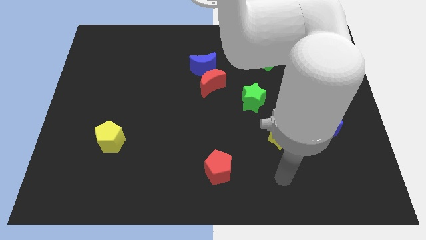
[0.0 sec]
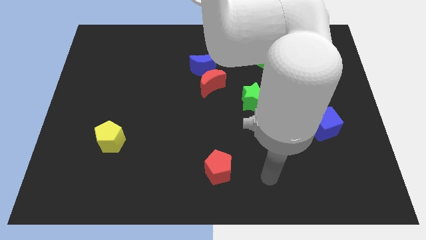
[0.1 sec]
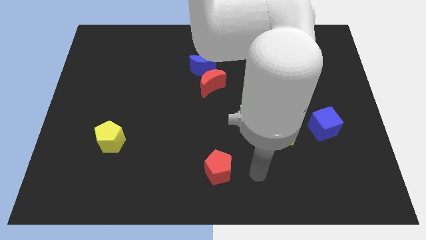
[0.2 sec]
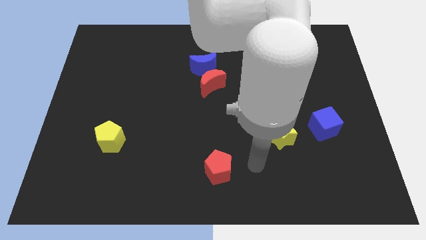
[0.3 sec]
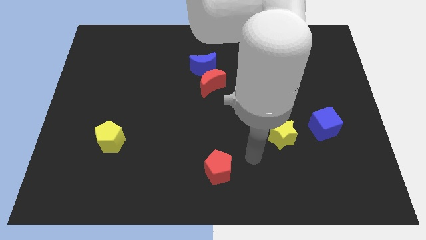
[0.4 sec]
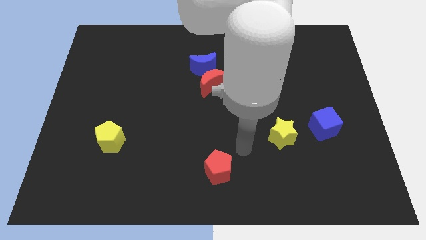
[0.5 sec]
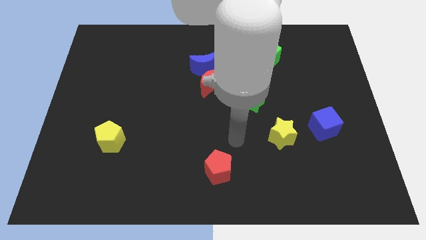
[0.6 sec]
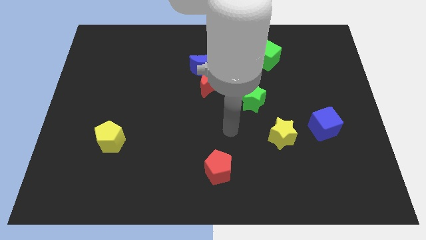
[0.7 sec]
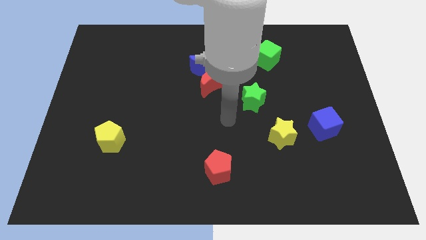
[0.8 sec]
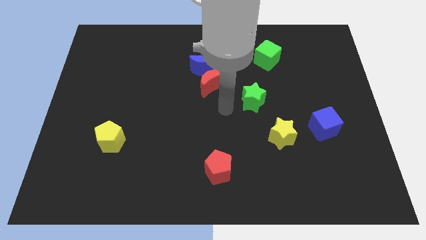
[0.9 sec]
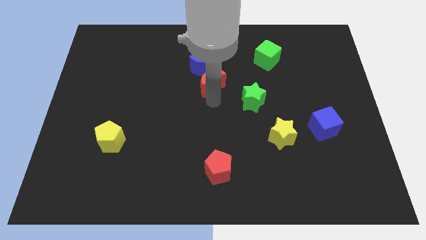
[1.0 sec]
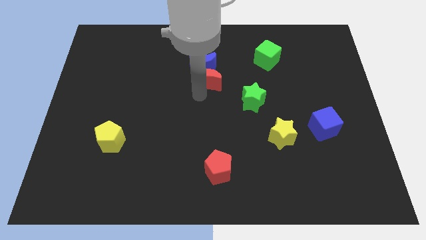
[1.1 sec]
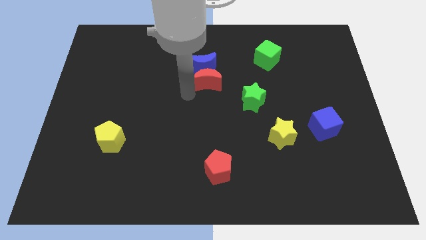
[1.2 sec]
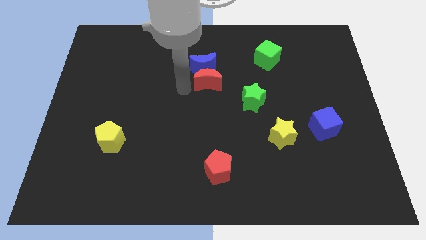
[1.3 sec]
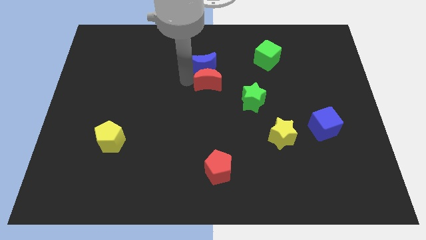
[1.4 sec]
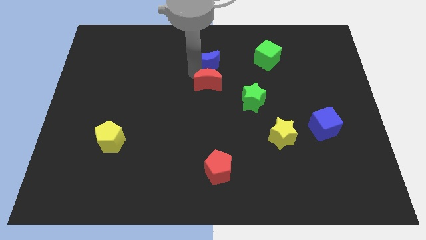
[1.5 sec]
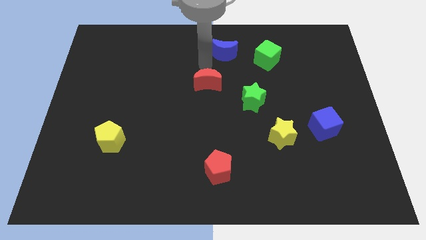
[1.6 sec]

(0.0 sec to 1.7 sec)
pull the red moon apart from the blue moon

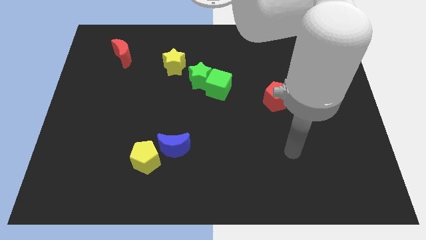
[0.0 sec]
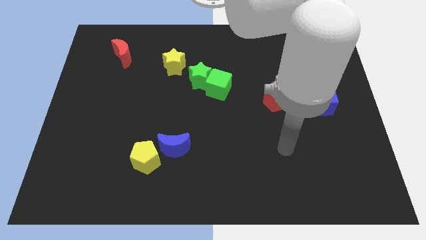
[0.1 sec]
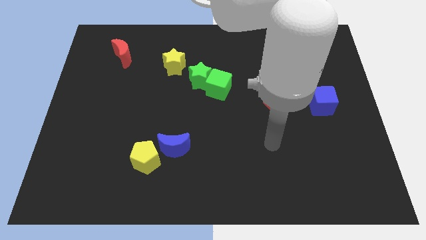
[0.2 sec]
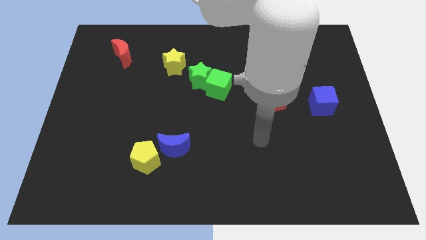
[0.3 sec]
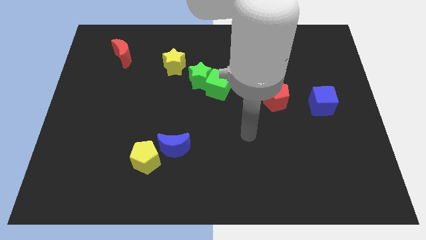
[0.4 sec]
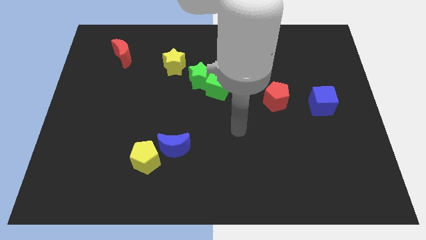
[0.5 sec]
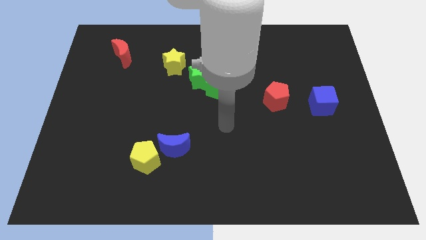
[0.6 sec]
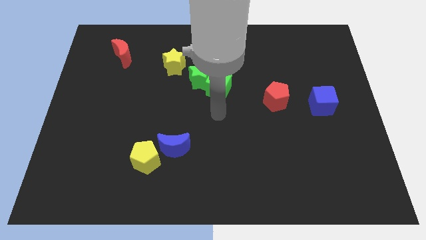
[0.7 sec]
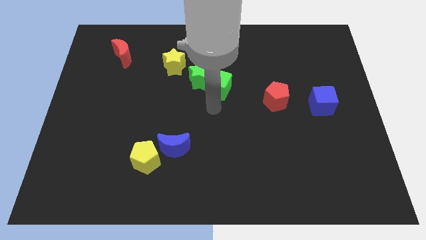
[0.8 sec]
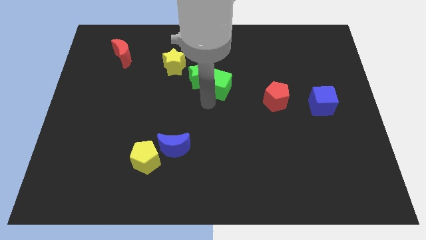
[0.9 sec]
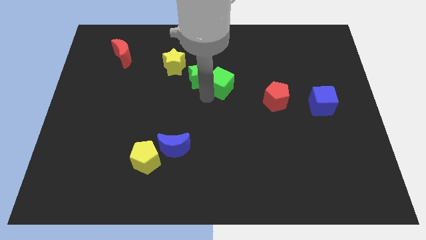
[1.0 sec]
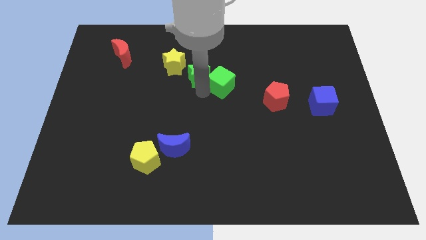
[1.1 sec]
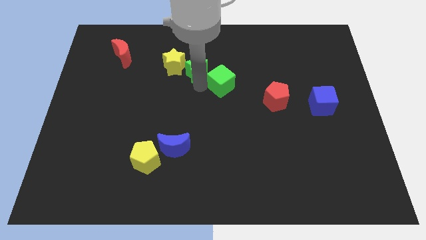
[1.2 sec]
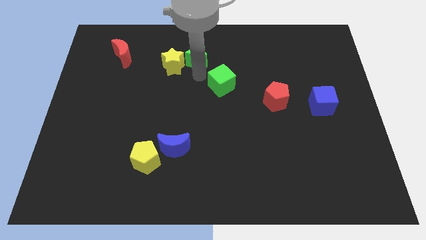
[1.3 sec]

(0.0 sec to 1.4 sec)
move the green cube away from the green star

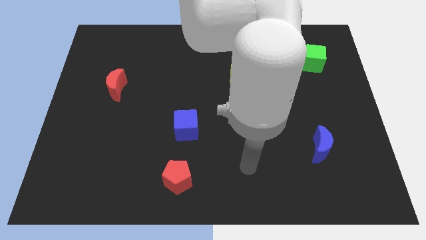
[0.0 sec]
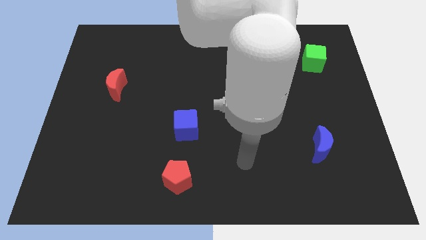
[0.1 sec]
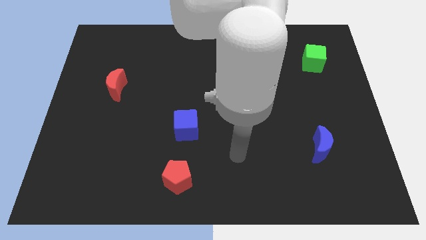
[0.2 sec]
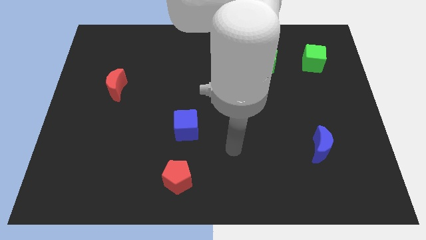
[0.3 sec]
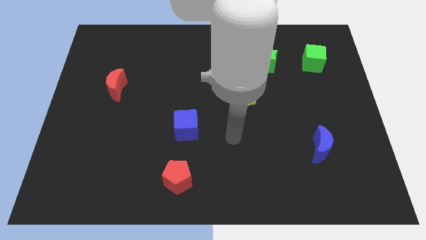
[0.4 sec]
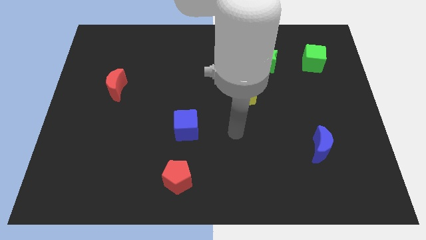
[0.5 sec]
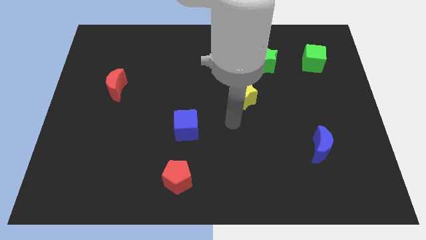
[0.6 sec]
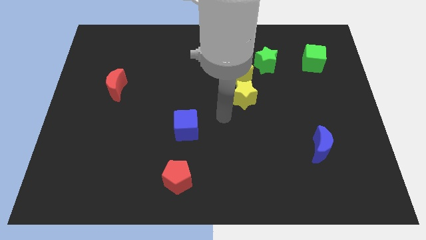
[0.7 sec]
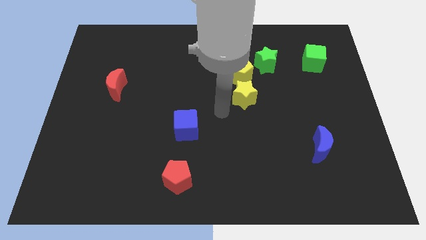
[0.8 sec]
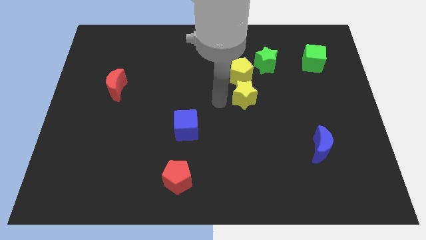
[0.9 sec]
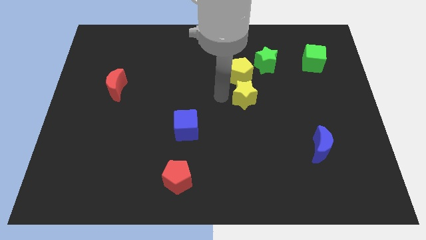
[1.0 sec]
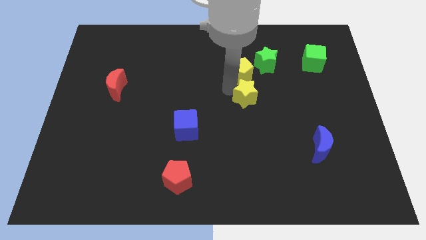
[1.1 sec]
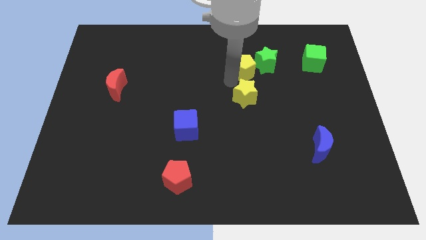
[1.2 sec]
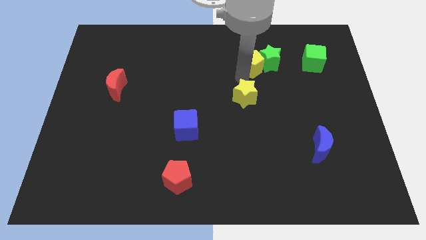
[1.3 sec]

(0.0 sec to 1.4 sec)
separate the yellow star from the yellow pentagon

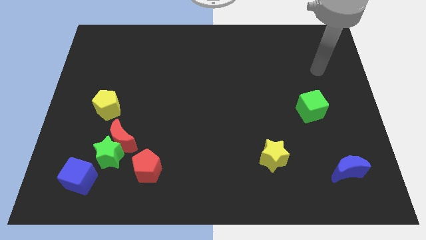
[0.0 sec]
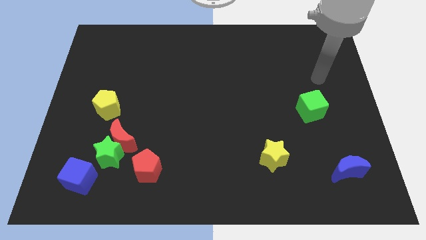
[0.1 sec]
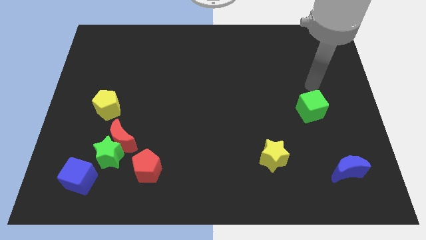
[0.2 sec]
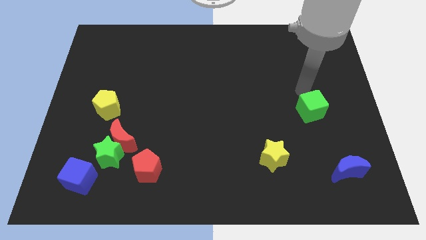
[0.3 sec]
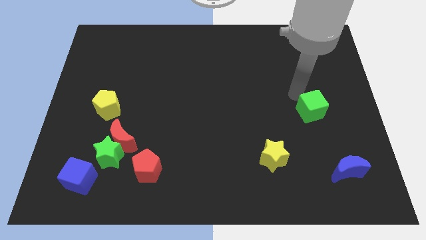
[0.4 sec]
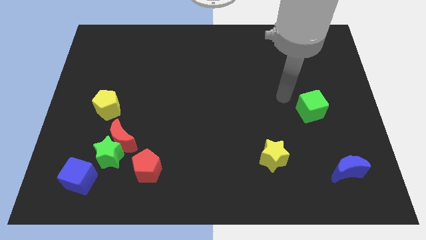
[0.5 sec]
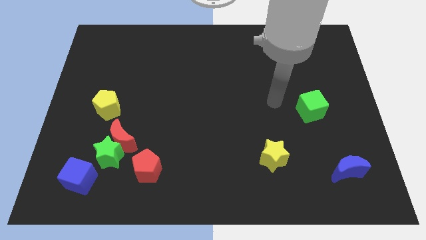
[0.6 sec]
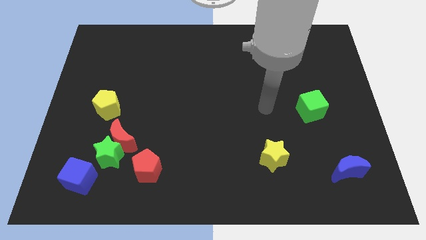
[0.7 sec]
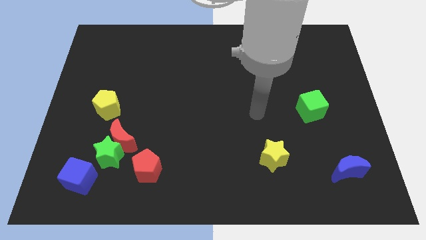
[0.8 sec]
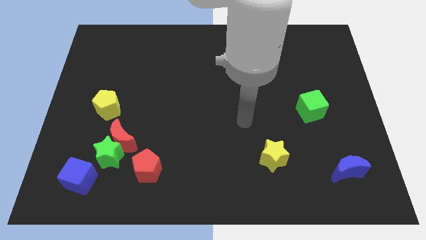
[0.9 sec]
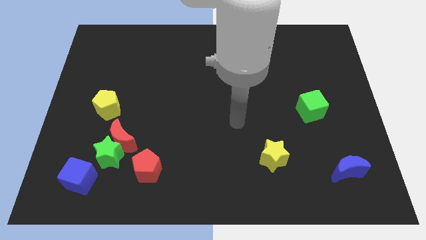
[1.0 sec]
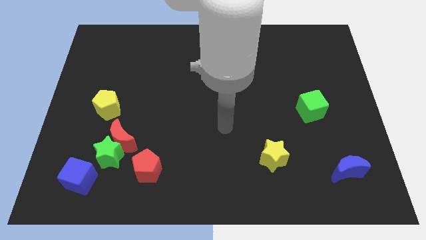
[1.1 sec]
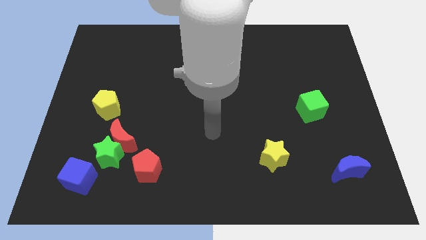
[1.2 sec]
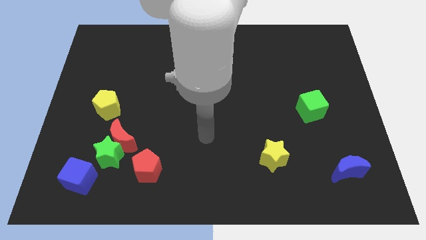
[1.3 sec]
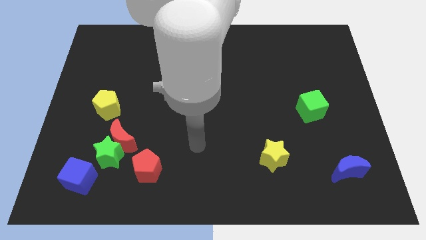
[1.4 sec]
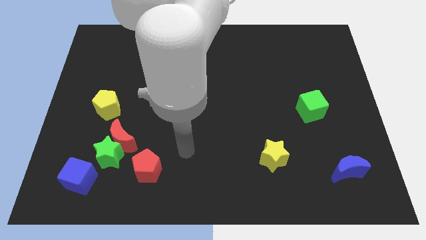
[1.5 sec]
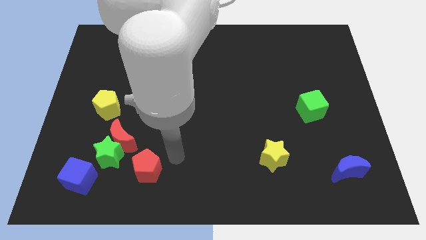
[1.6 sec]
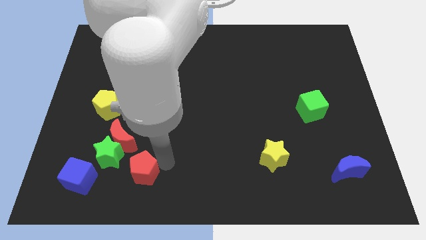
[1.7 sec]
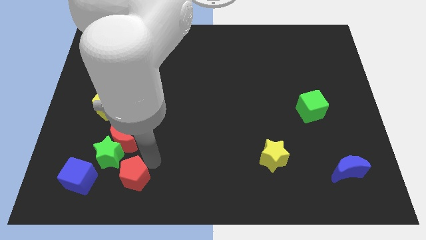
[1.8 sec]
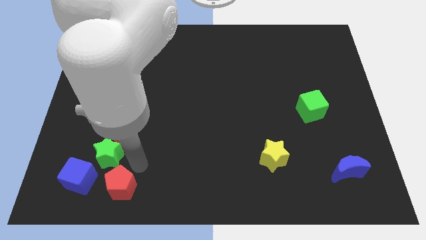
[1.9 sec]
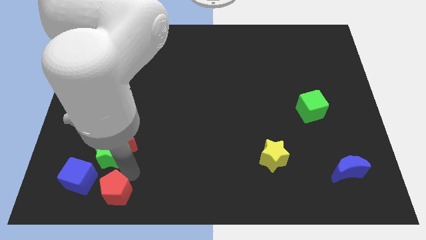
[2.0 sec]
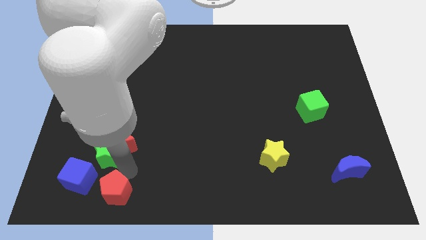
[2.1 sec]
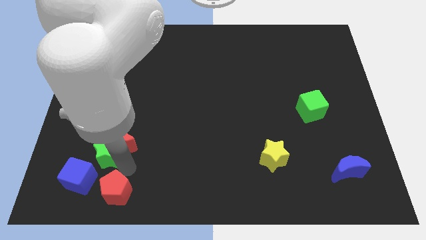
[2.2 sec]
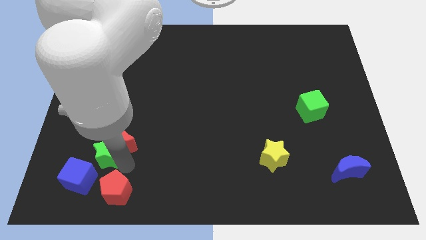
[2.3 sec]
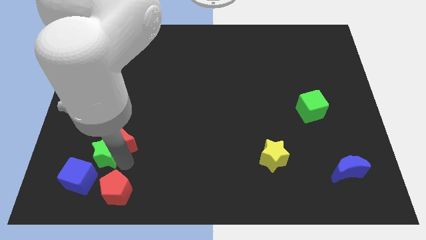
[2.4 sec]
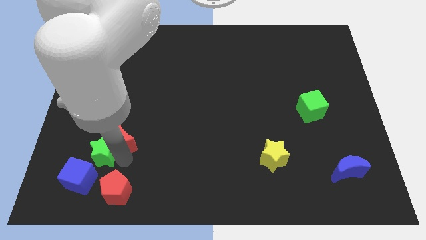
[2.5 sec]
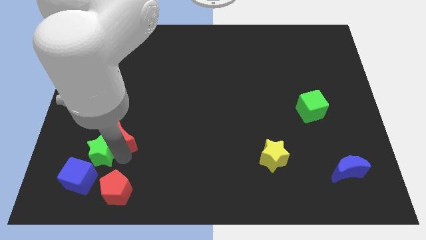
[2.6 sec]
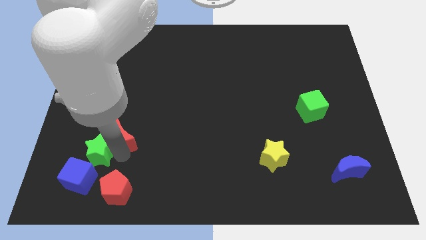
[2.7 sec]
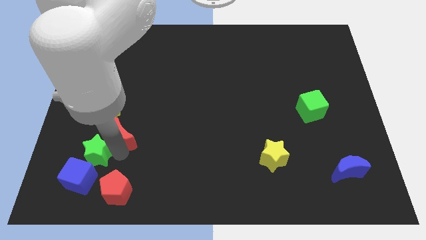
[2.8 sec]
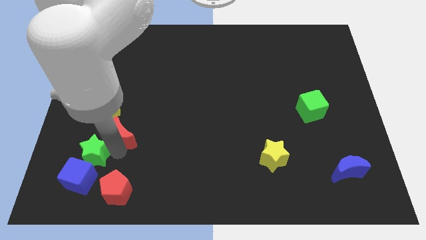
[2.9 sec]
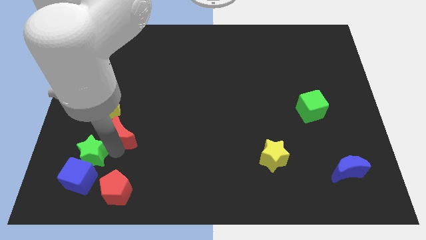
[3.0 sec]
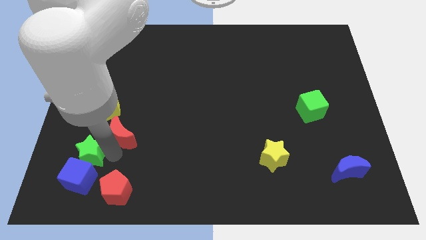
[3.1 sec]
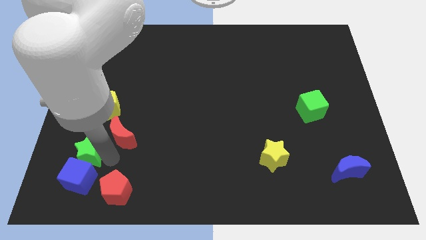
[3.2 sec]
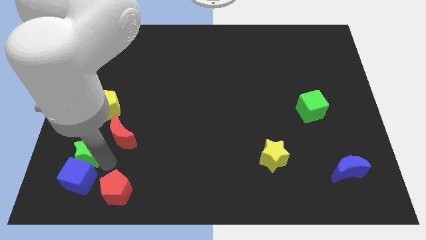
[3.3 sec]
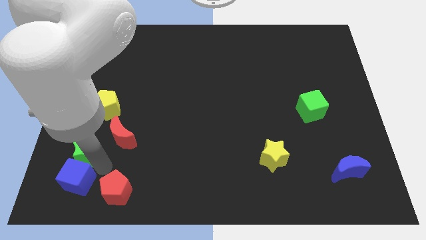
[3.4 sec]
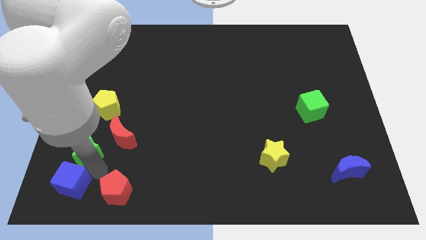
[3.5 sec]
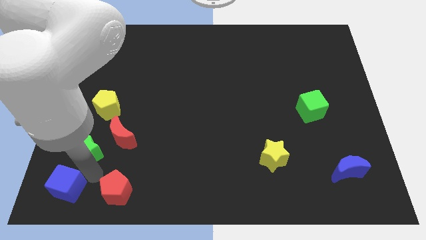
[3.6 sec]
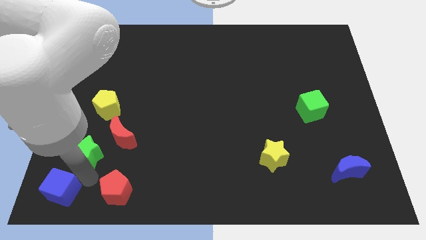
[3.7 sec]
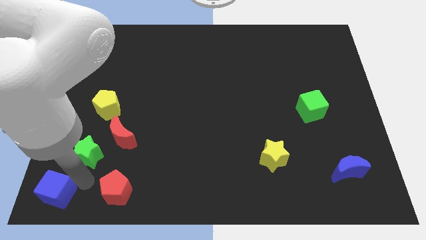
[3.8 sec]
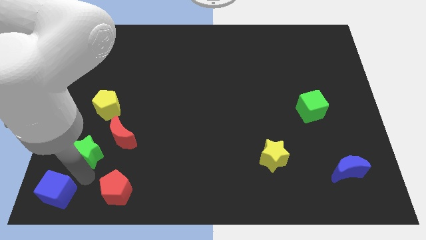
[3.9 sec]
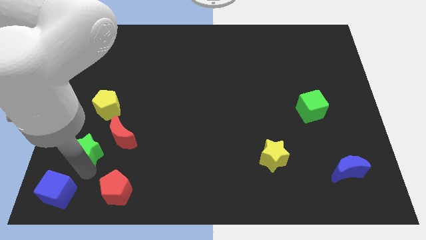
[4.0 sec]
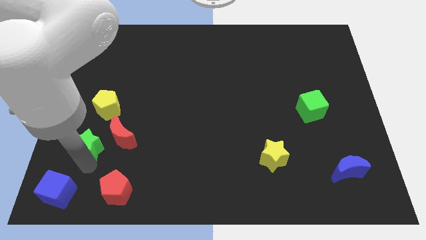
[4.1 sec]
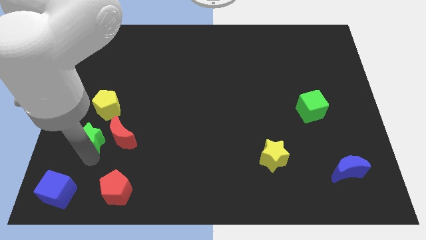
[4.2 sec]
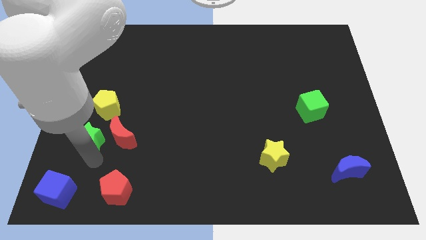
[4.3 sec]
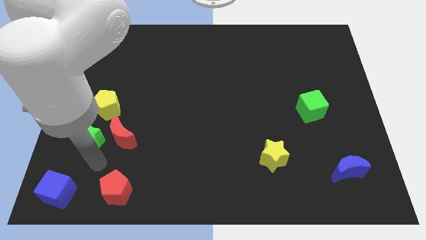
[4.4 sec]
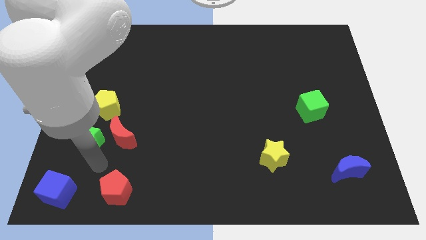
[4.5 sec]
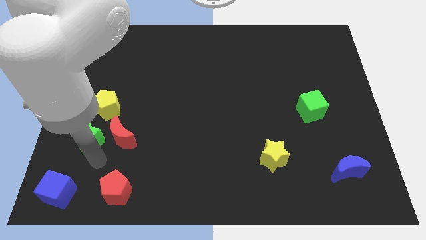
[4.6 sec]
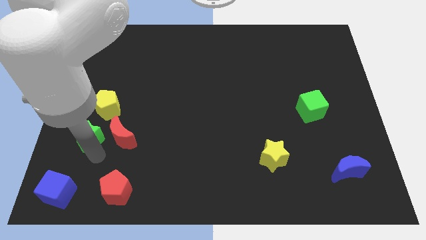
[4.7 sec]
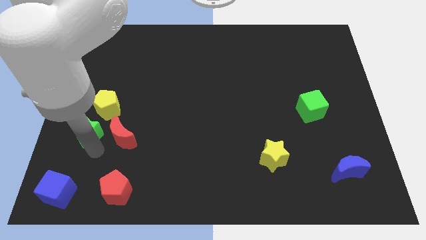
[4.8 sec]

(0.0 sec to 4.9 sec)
separate the green star from the red moon, blue cube, and red pentagon
